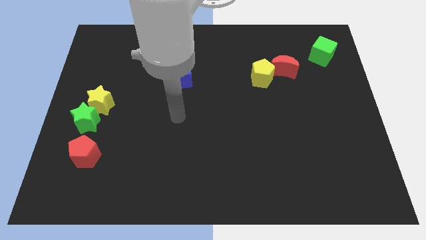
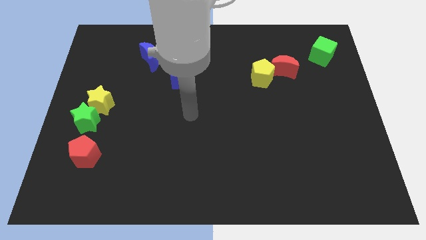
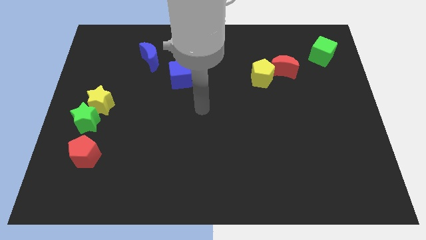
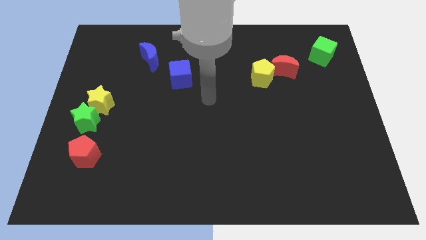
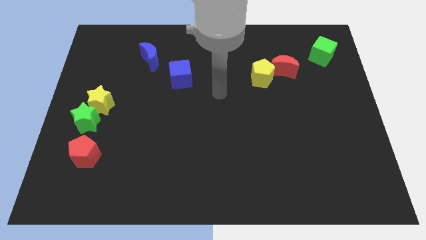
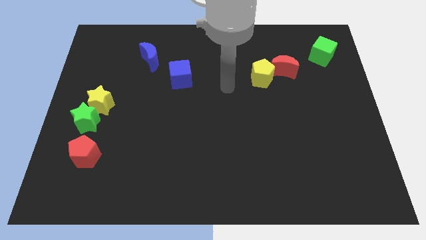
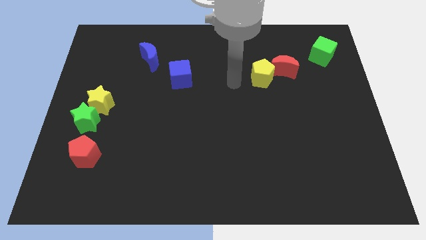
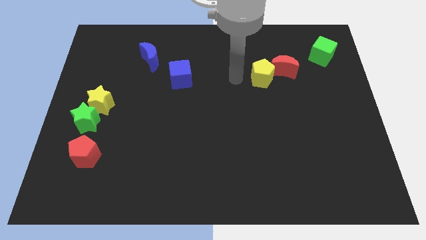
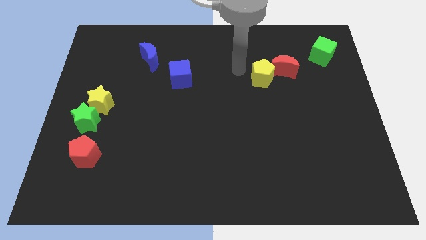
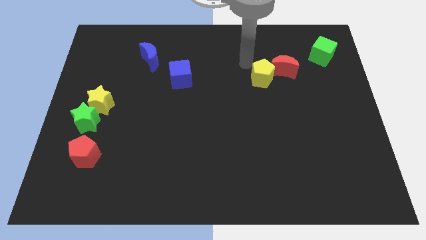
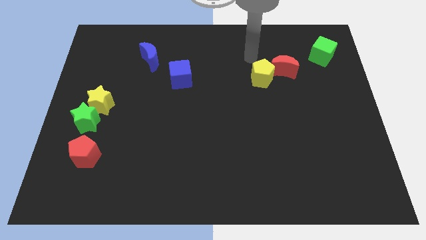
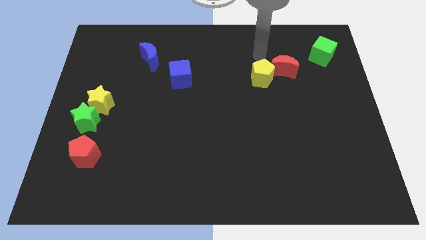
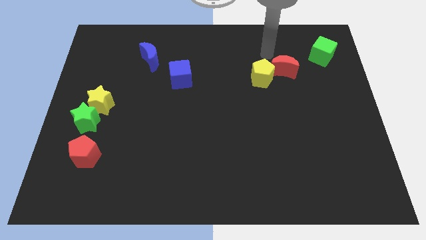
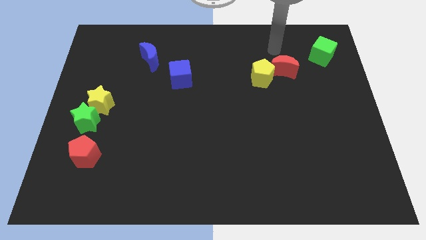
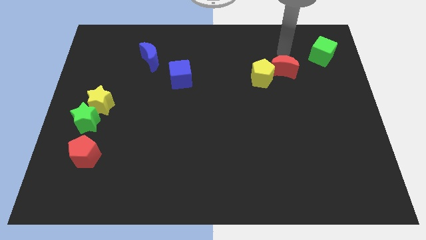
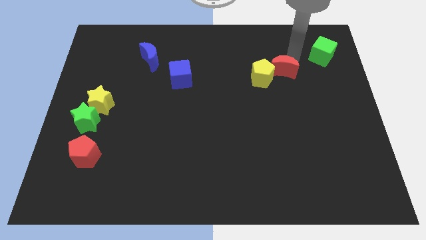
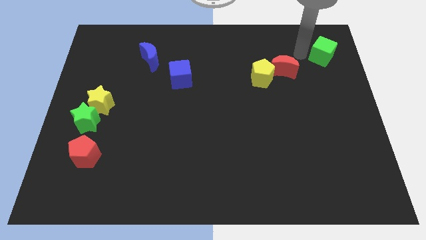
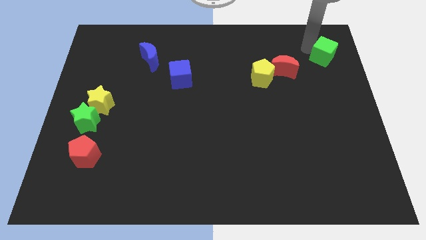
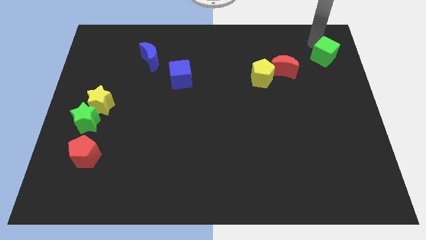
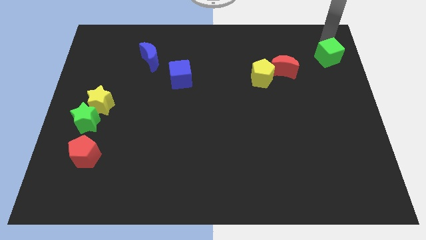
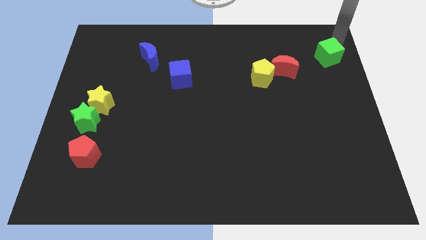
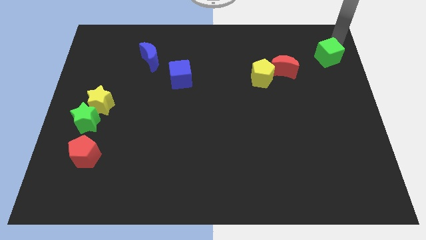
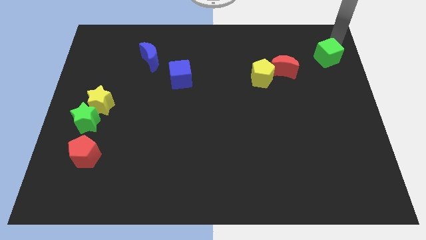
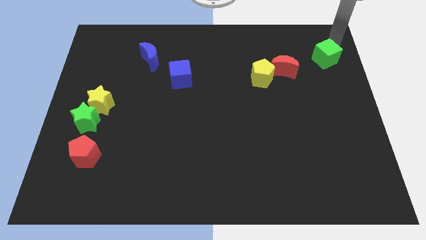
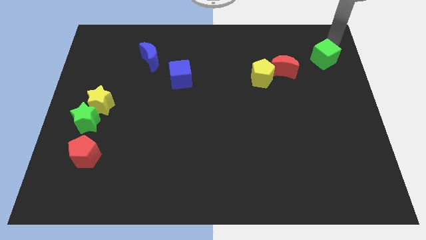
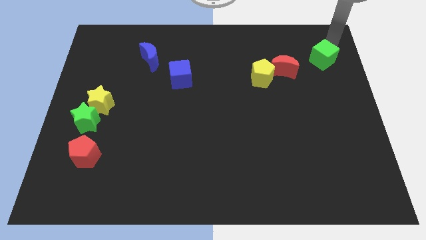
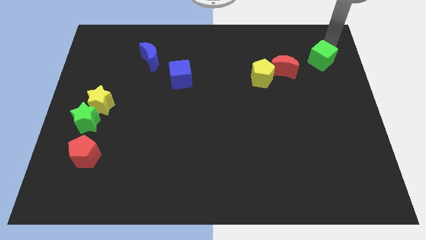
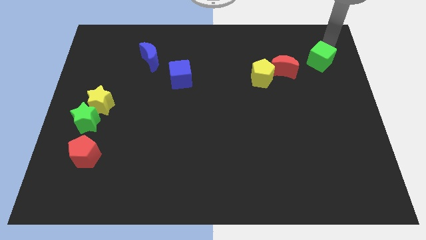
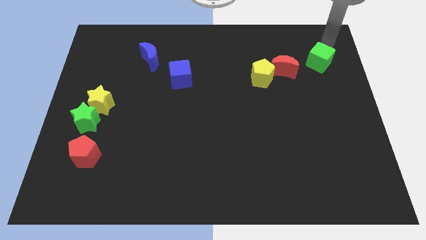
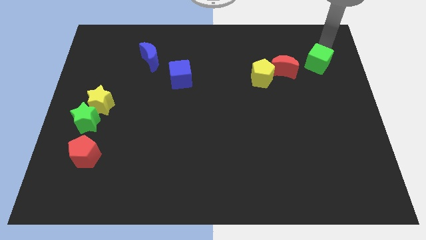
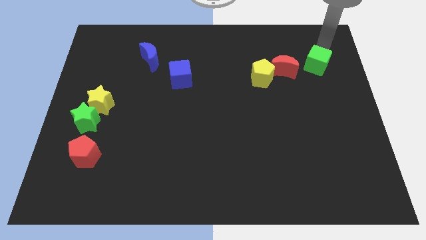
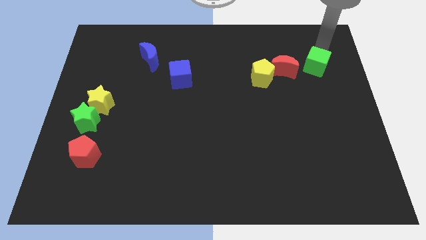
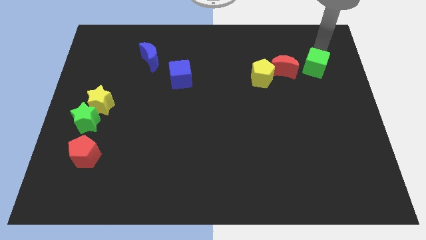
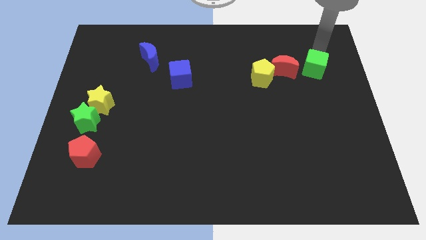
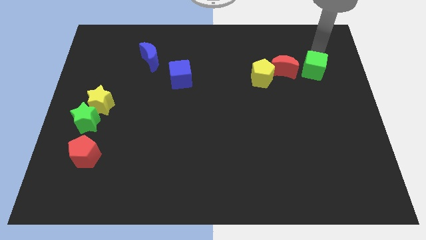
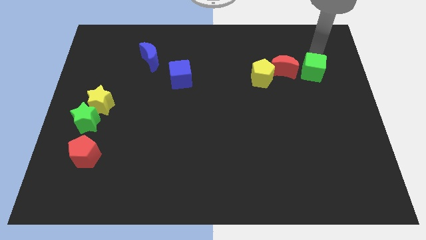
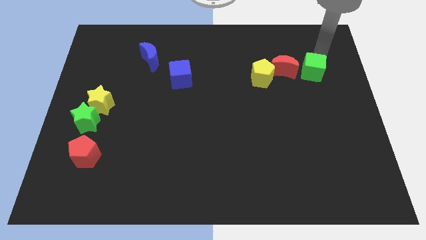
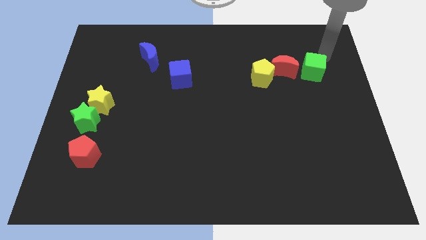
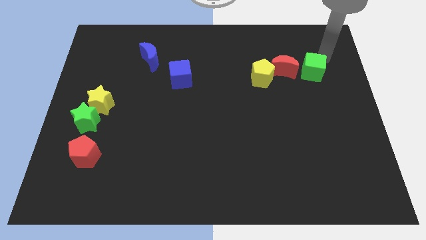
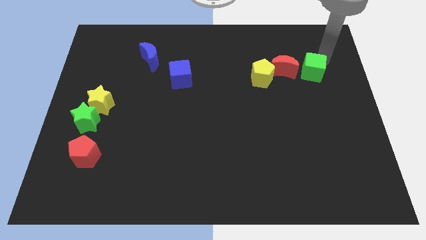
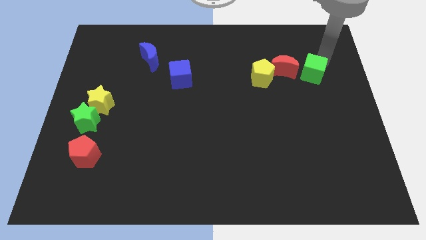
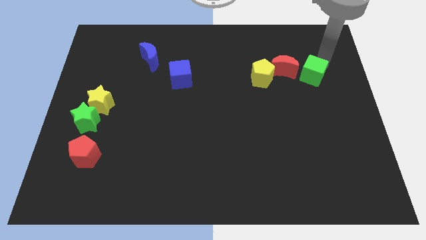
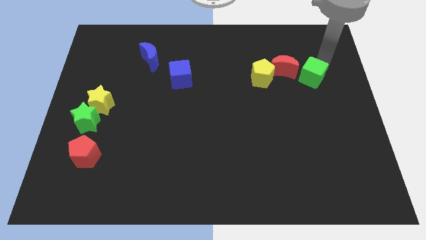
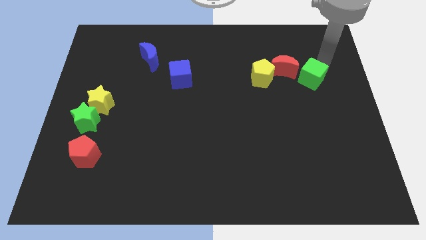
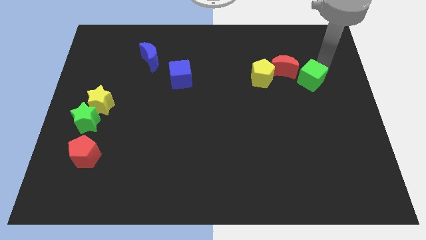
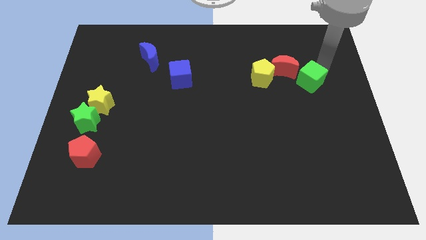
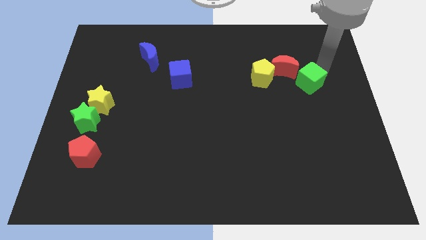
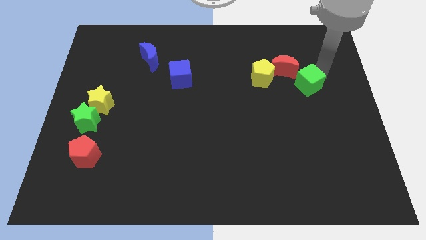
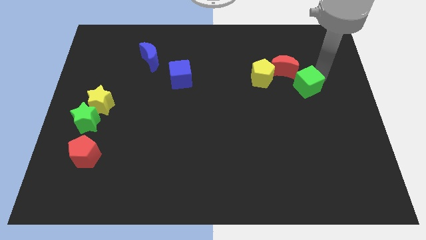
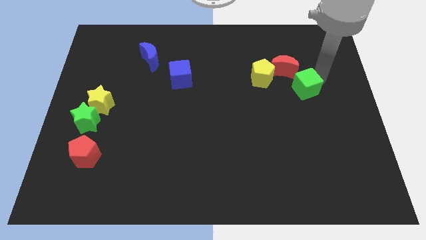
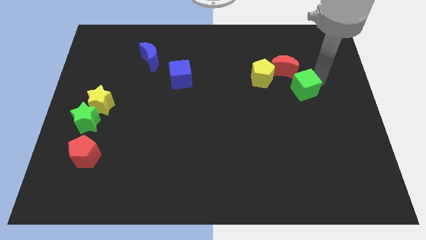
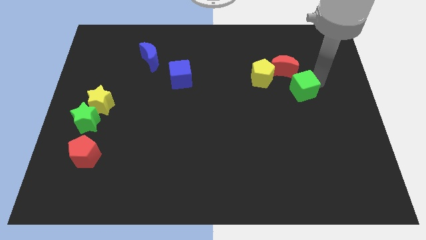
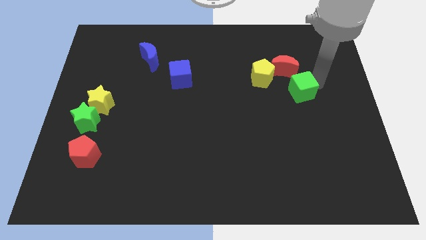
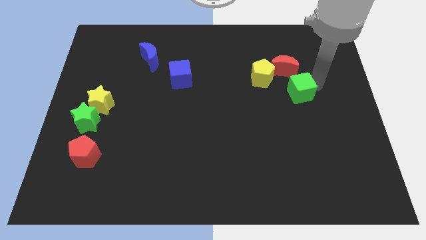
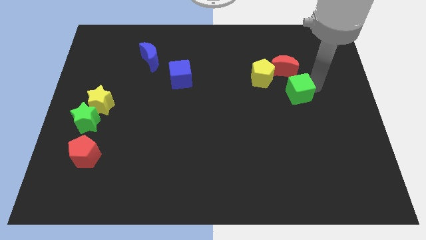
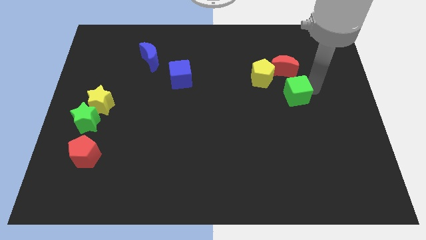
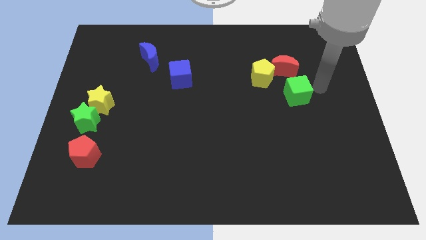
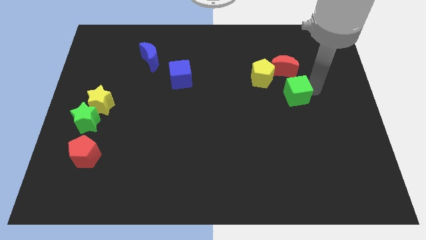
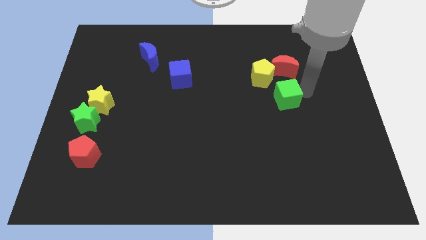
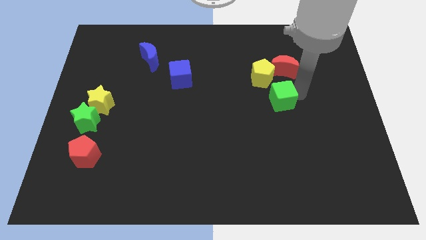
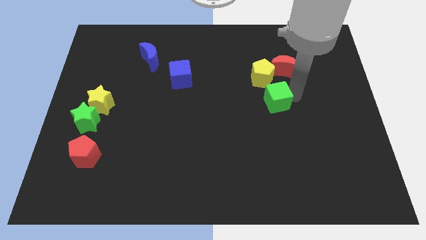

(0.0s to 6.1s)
push the green cube diagonally down and to the left

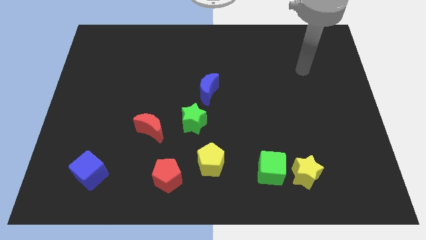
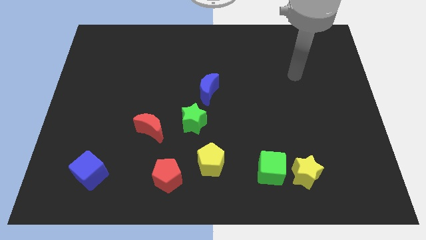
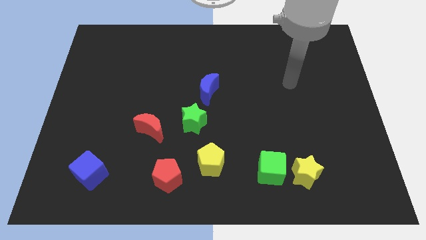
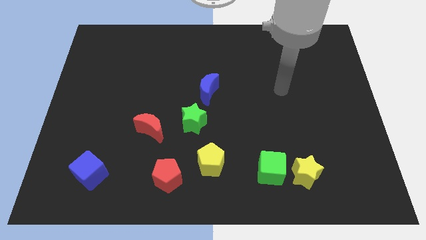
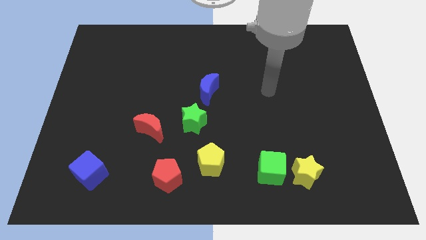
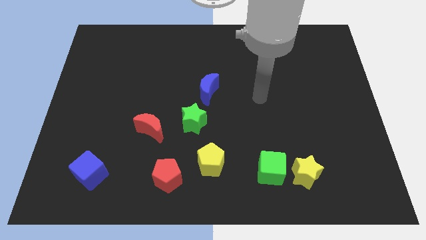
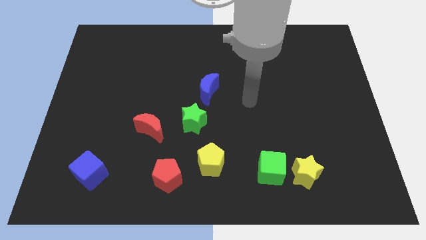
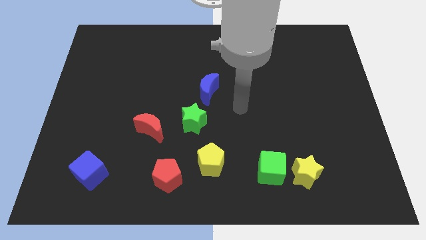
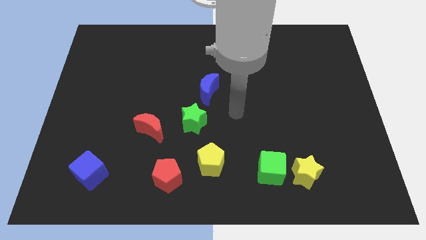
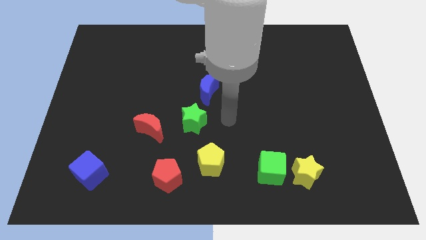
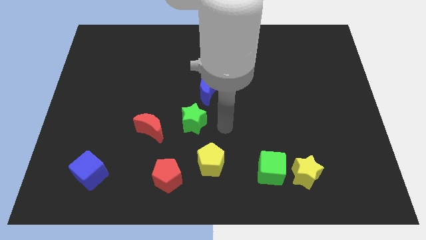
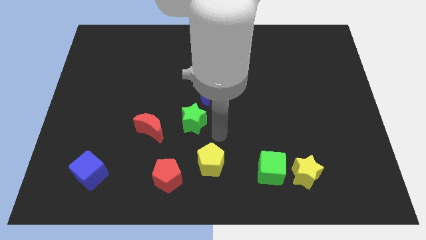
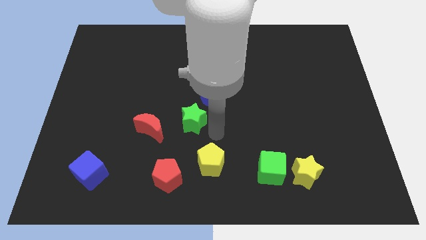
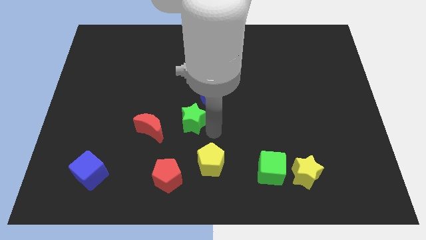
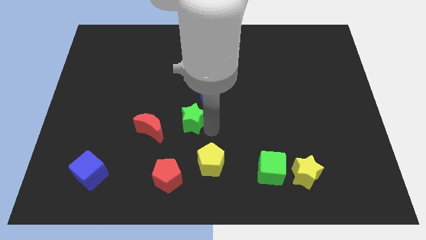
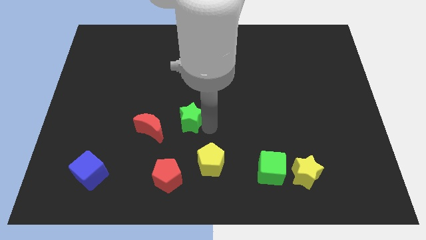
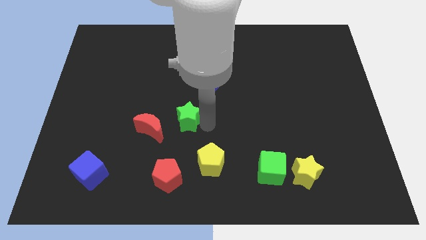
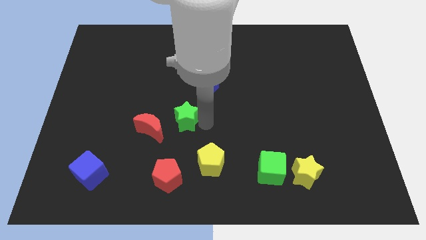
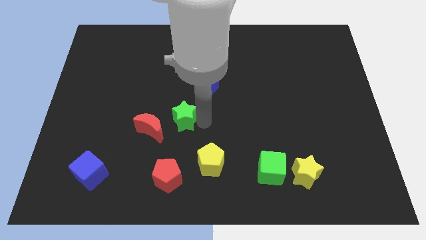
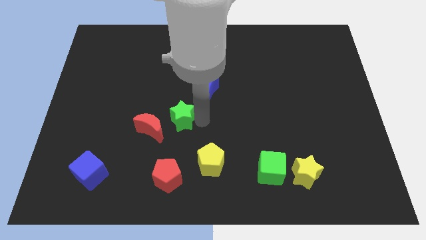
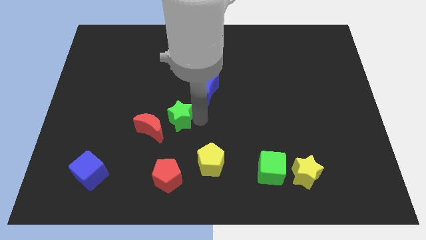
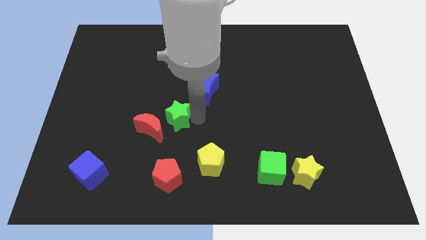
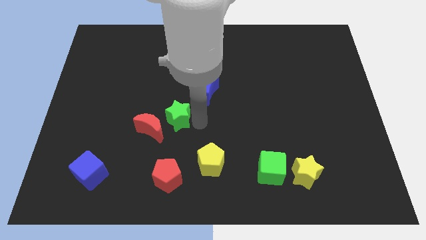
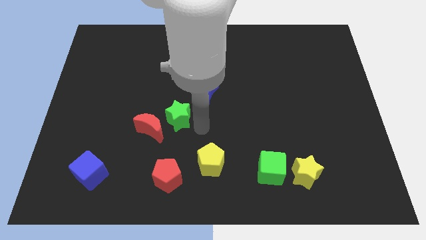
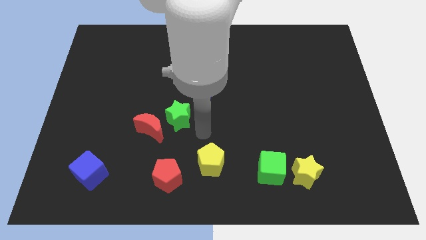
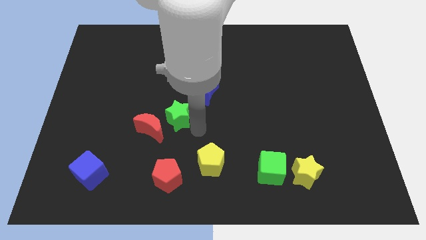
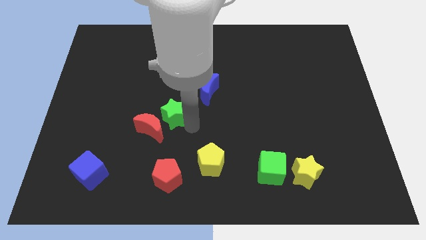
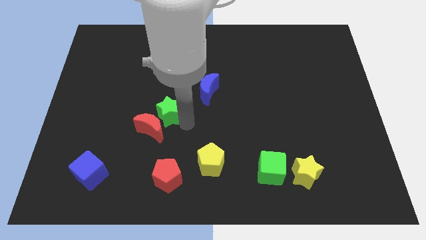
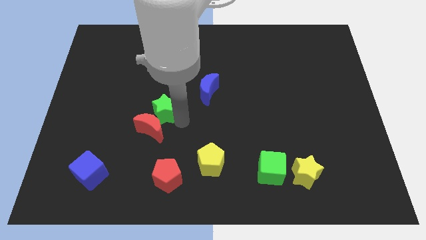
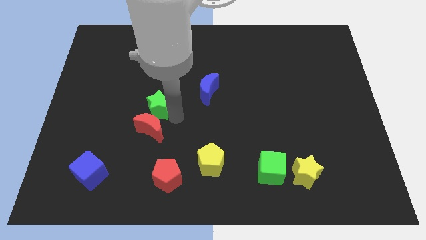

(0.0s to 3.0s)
slightly push the green star left
